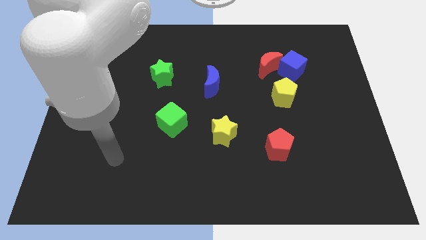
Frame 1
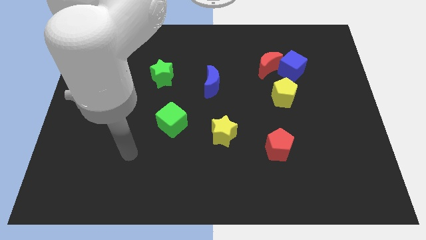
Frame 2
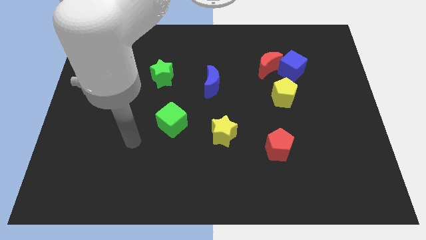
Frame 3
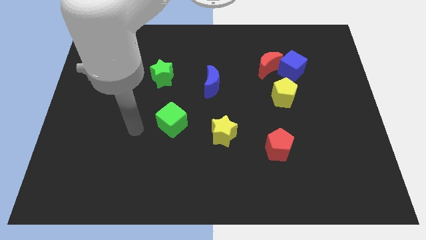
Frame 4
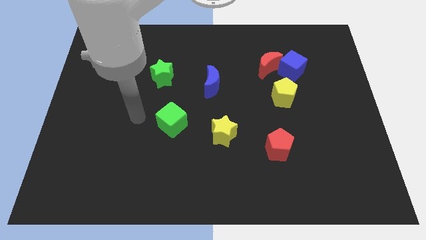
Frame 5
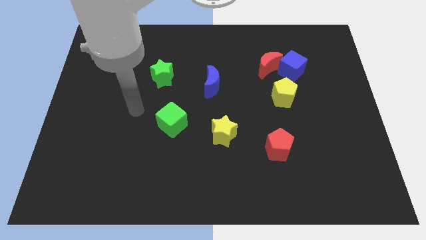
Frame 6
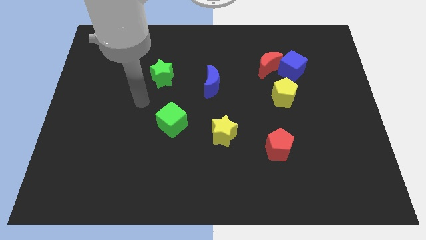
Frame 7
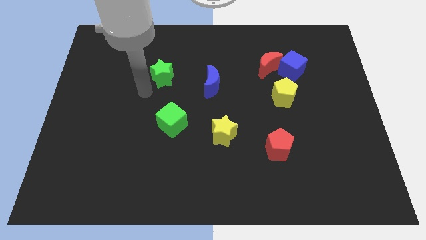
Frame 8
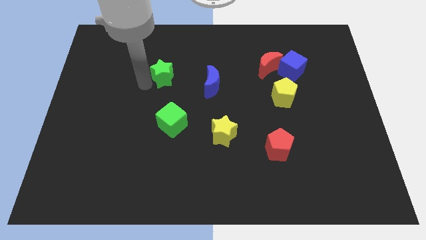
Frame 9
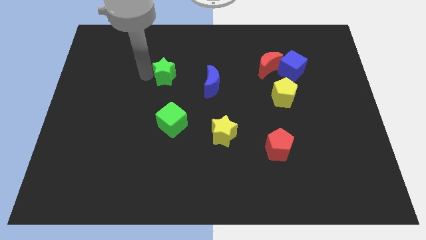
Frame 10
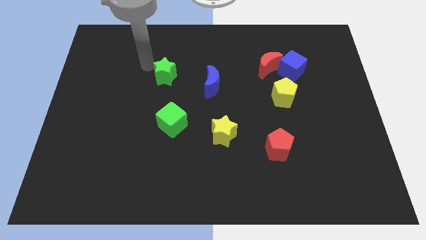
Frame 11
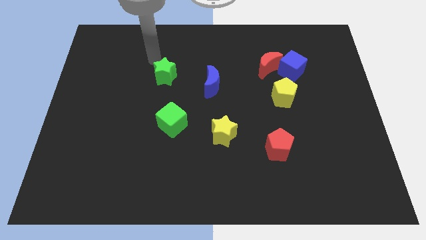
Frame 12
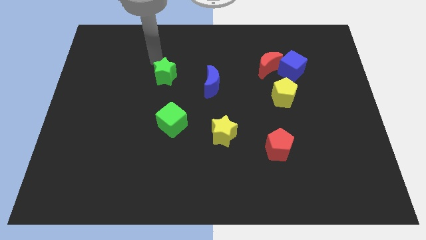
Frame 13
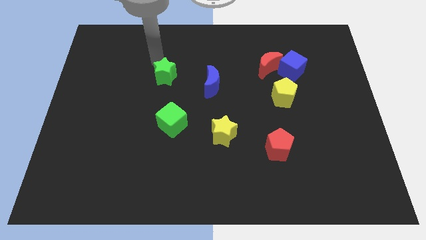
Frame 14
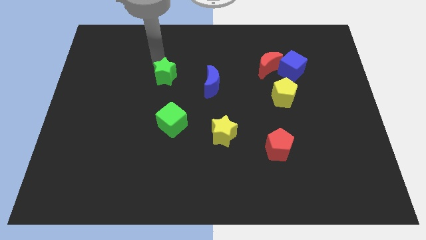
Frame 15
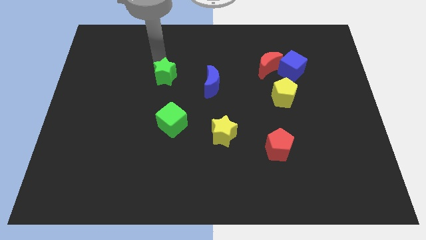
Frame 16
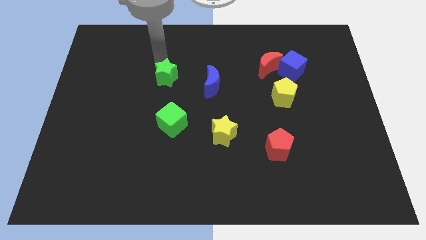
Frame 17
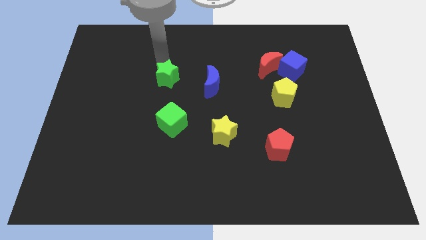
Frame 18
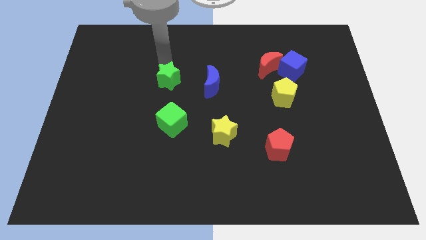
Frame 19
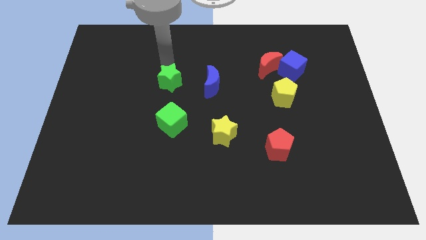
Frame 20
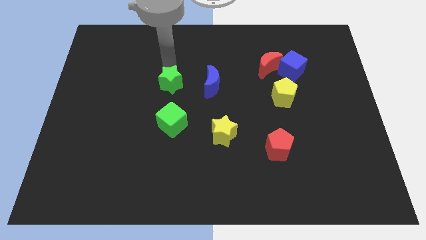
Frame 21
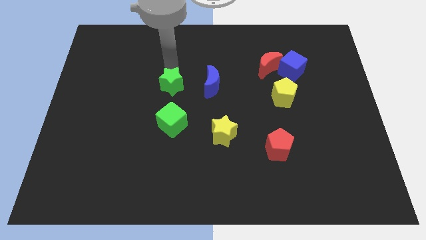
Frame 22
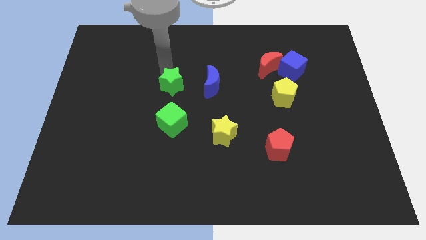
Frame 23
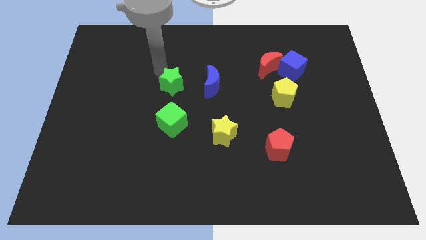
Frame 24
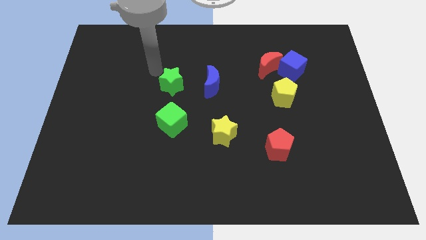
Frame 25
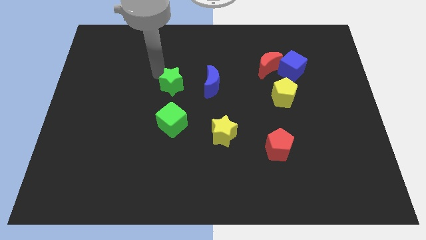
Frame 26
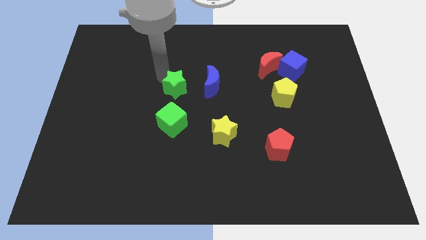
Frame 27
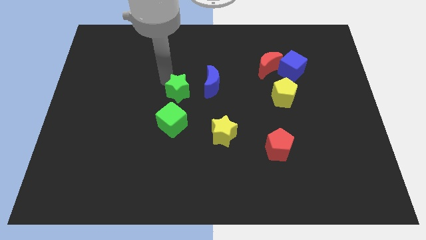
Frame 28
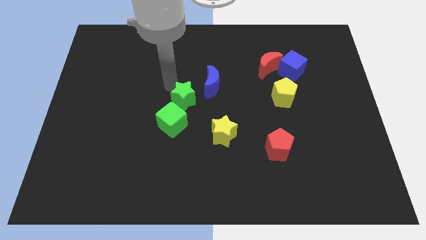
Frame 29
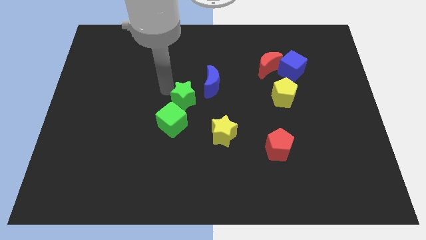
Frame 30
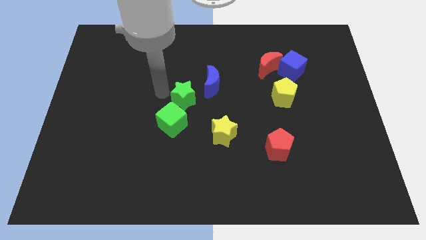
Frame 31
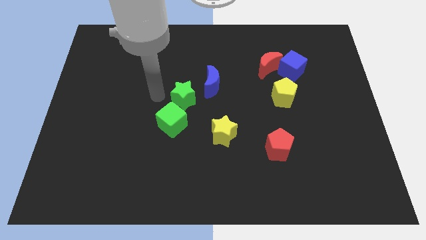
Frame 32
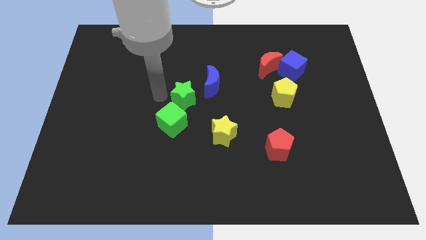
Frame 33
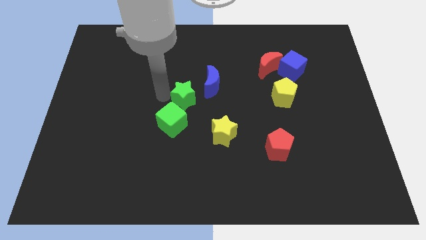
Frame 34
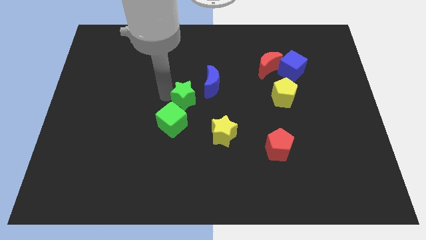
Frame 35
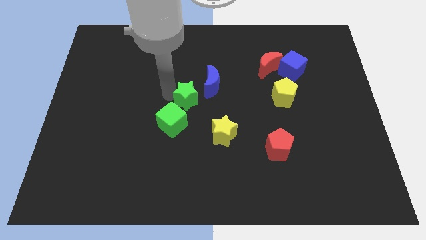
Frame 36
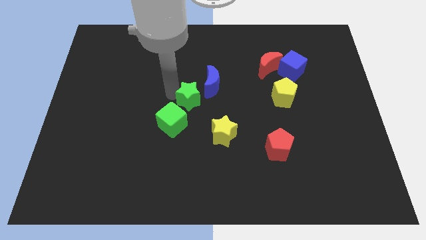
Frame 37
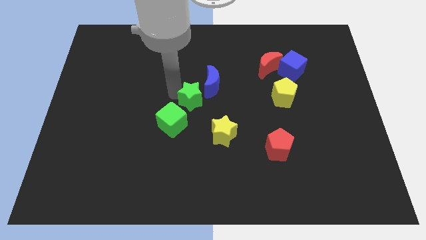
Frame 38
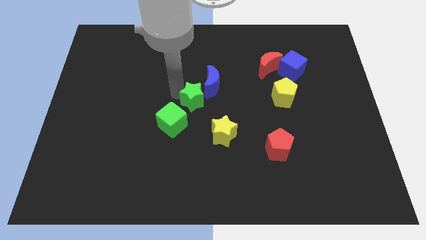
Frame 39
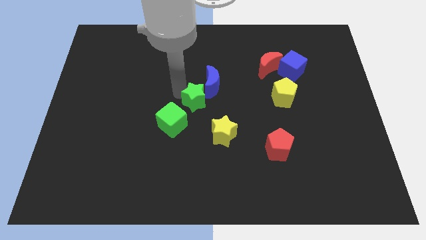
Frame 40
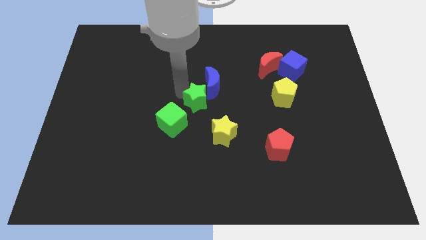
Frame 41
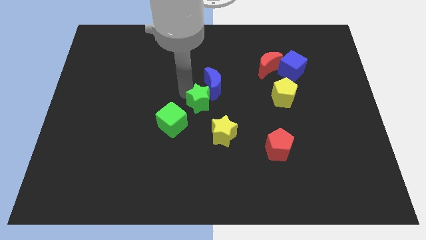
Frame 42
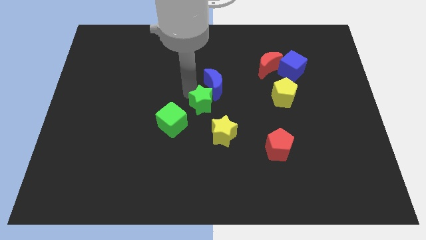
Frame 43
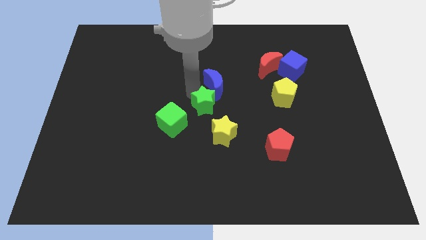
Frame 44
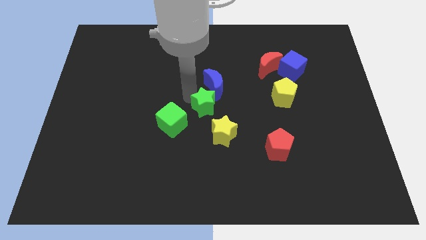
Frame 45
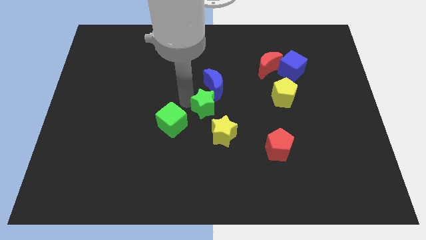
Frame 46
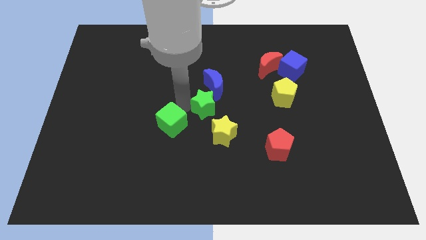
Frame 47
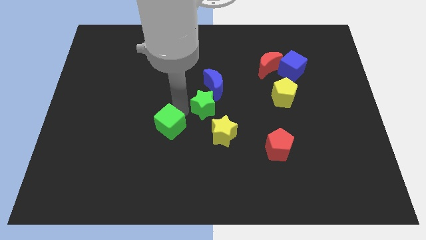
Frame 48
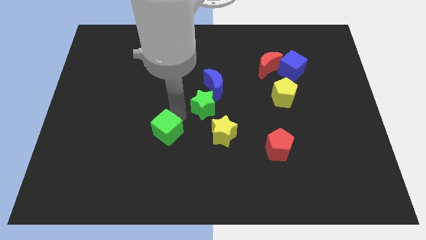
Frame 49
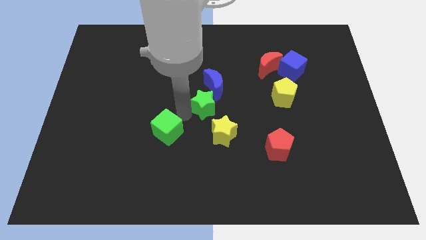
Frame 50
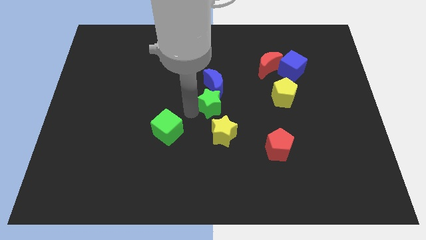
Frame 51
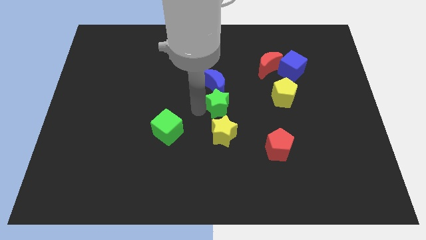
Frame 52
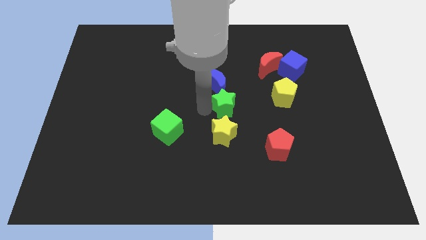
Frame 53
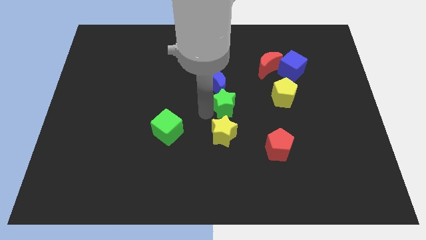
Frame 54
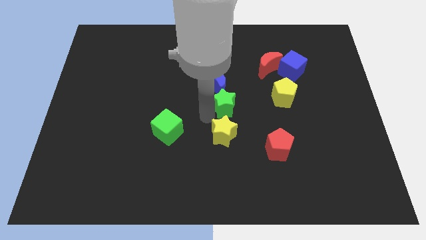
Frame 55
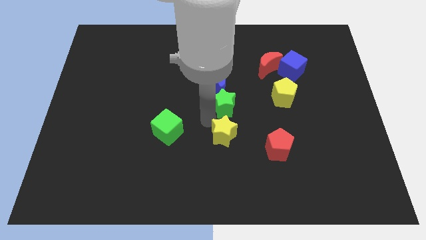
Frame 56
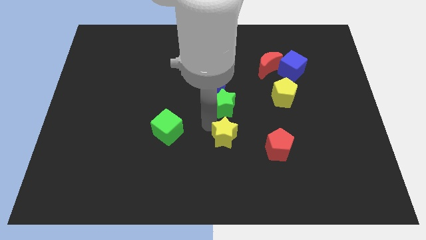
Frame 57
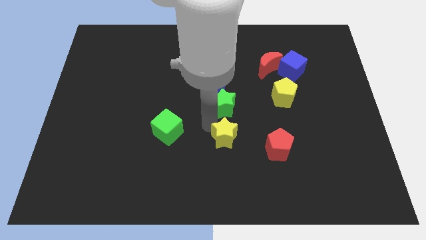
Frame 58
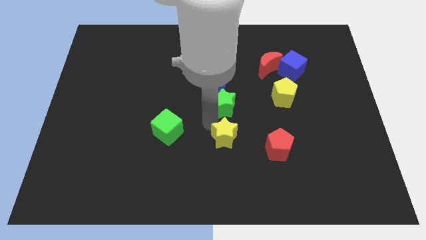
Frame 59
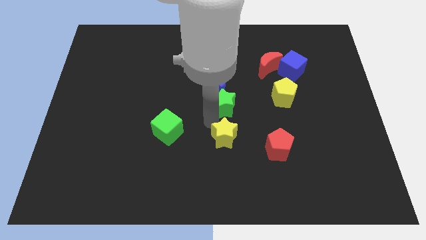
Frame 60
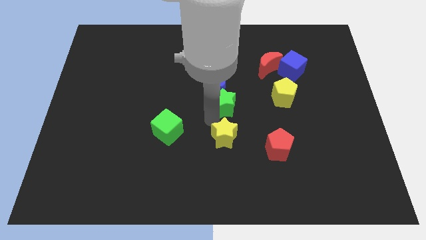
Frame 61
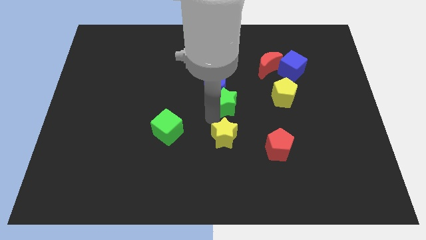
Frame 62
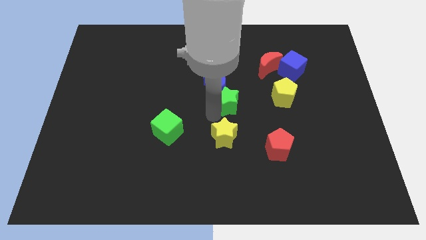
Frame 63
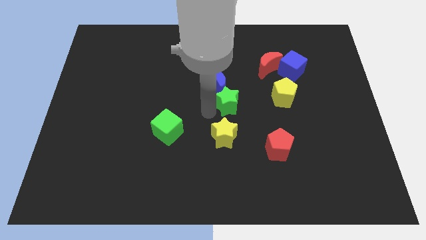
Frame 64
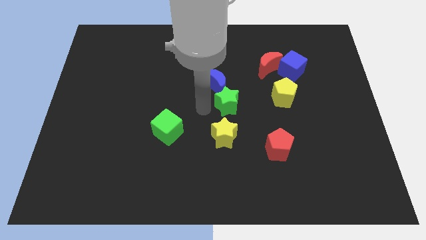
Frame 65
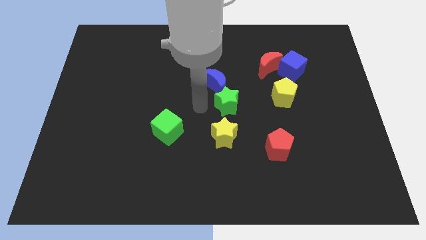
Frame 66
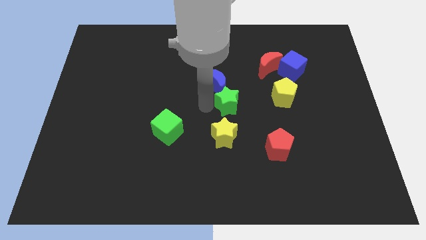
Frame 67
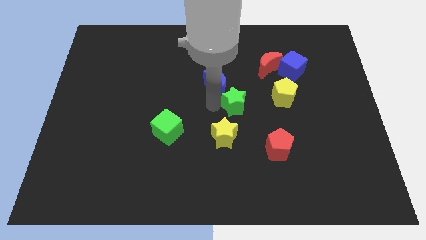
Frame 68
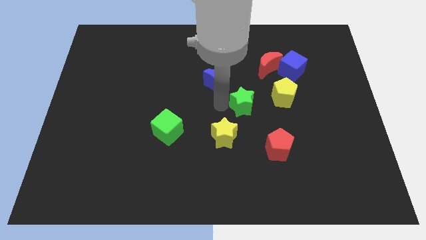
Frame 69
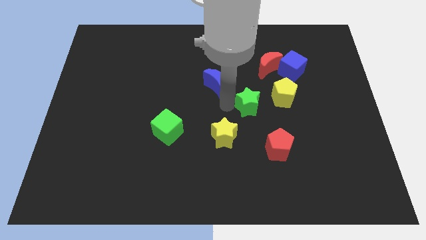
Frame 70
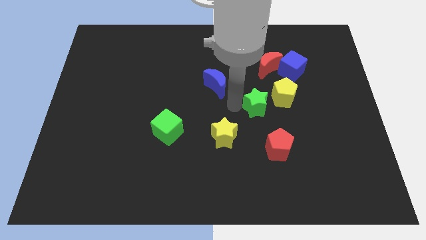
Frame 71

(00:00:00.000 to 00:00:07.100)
push the green star below the red moon

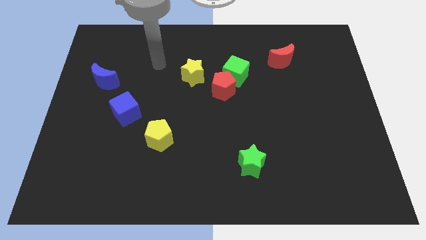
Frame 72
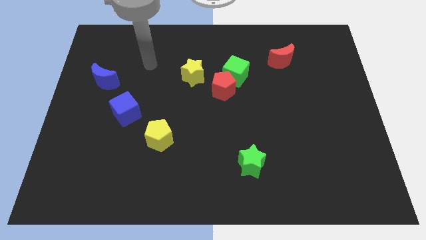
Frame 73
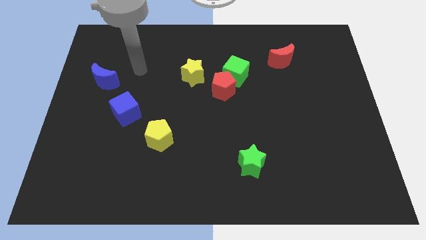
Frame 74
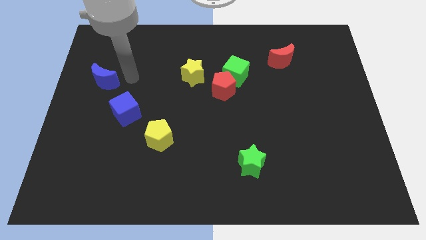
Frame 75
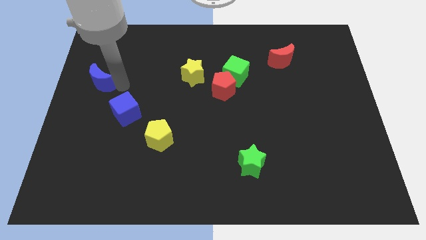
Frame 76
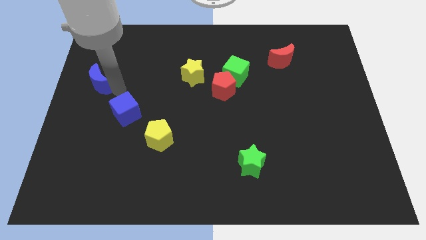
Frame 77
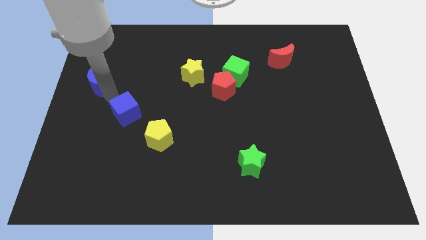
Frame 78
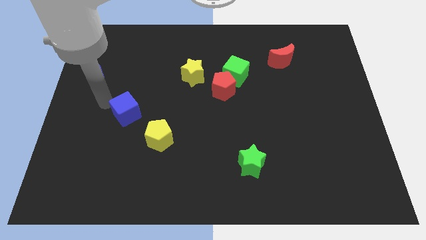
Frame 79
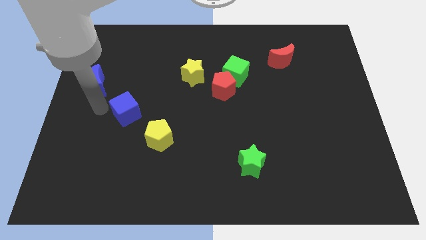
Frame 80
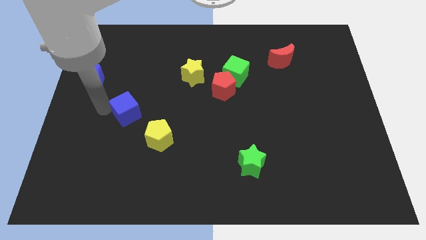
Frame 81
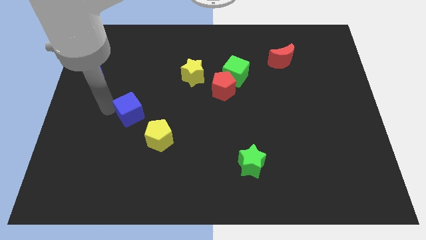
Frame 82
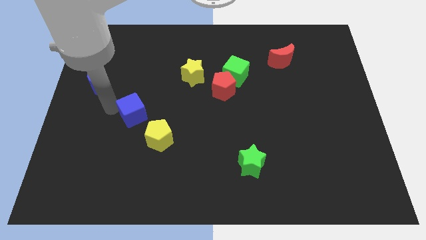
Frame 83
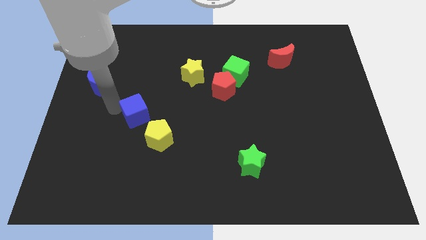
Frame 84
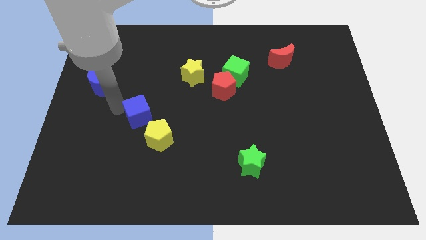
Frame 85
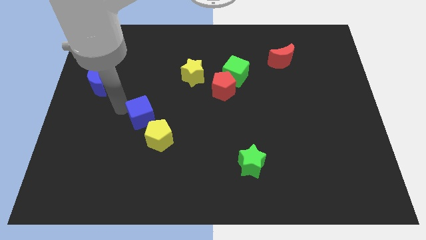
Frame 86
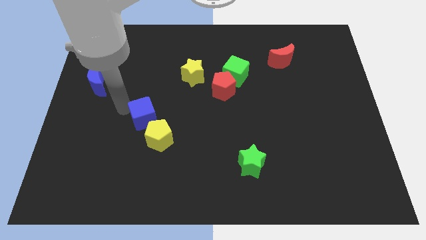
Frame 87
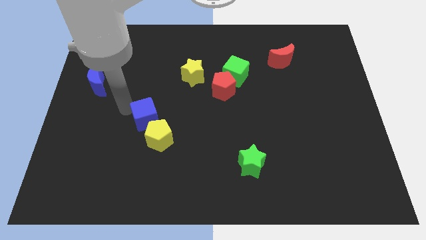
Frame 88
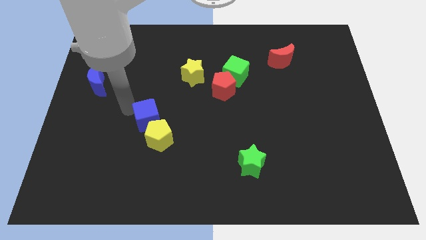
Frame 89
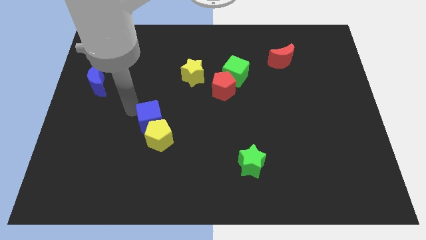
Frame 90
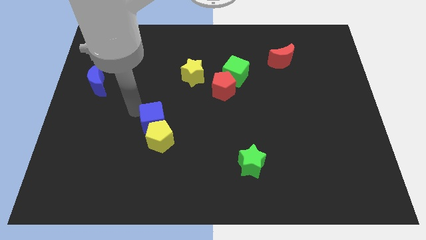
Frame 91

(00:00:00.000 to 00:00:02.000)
move the blue cube diagonally up and to the right of the yellow pentagon
